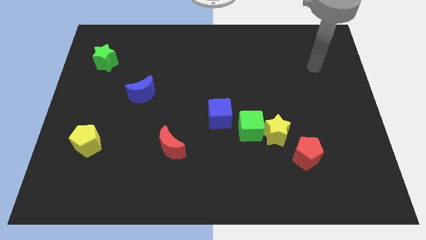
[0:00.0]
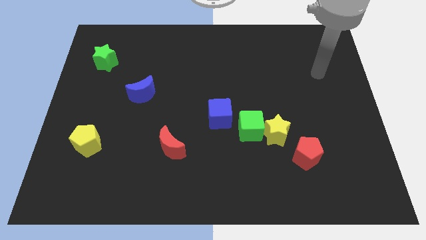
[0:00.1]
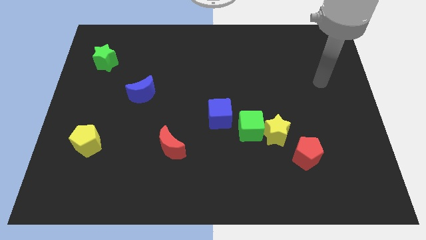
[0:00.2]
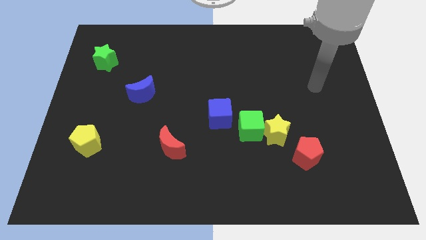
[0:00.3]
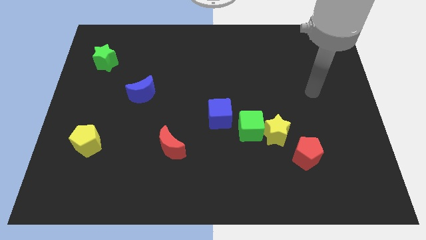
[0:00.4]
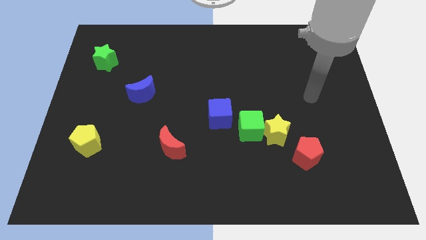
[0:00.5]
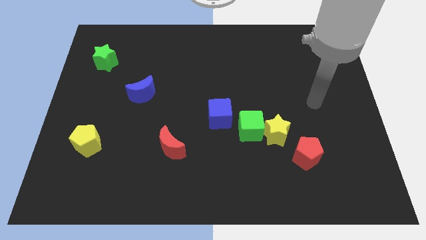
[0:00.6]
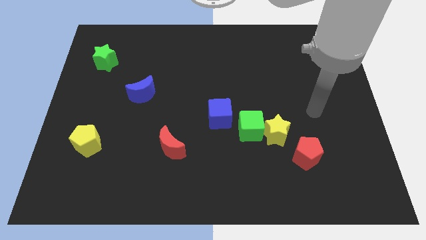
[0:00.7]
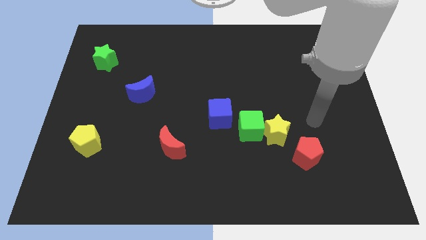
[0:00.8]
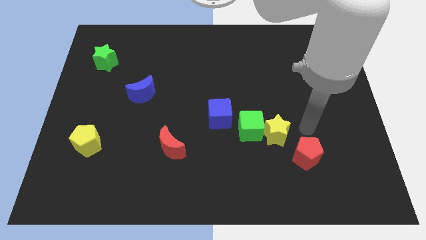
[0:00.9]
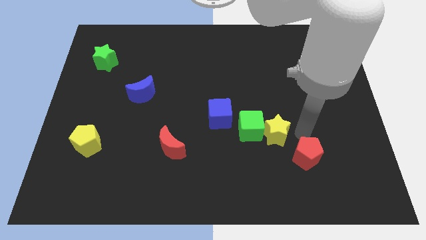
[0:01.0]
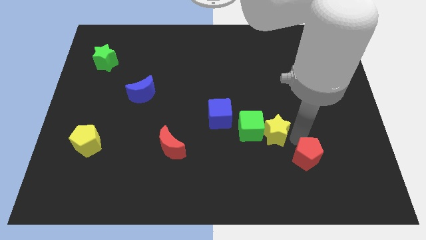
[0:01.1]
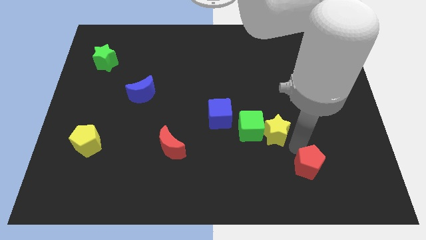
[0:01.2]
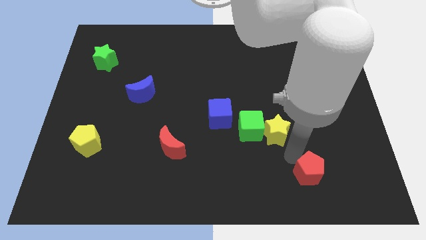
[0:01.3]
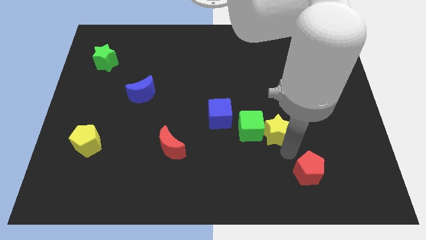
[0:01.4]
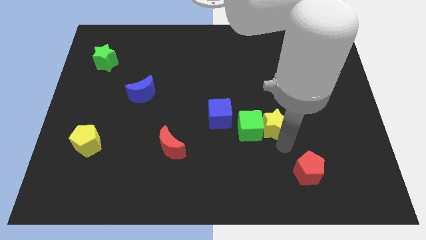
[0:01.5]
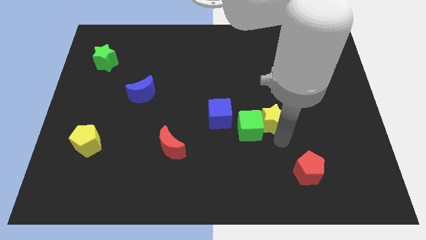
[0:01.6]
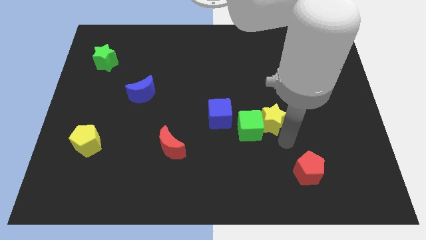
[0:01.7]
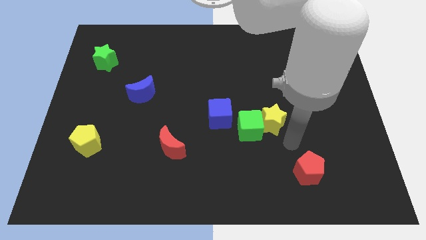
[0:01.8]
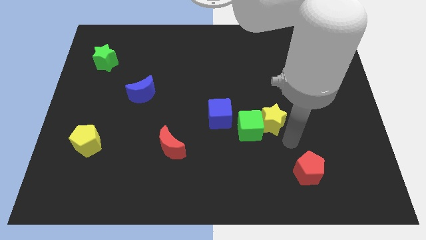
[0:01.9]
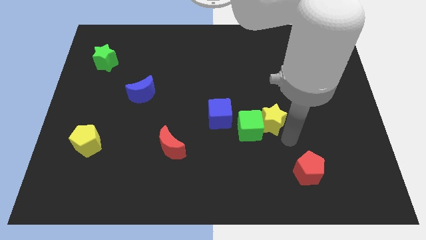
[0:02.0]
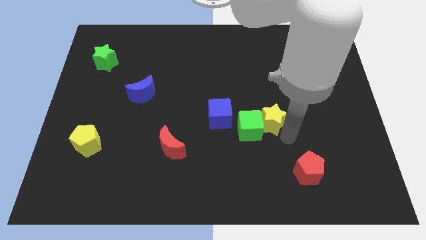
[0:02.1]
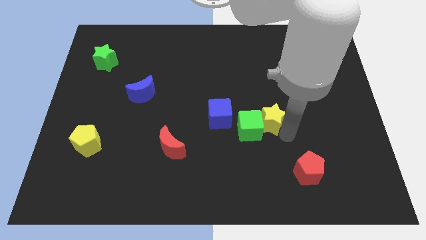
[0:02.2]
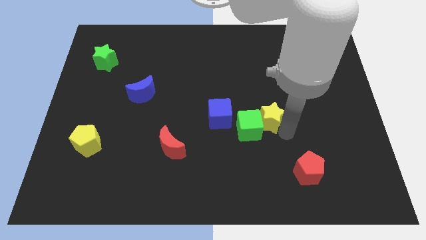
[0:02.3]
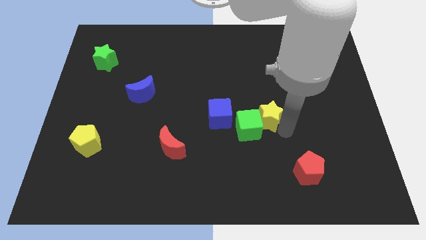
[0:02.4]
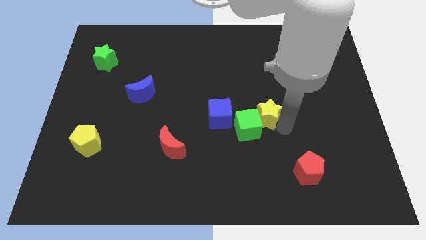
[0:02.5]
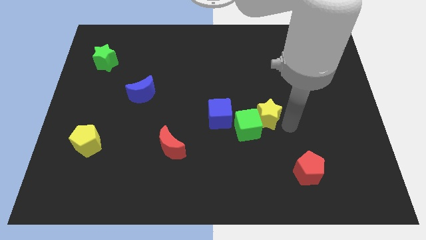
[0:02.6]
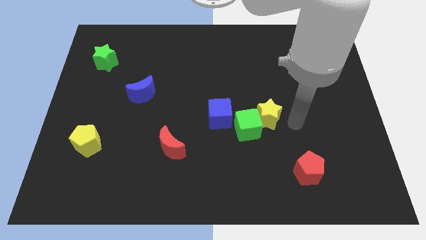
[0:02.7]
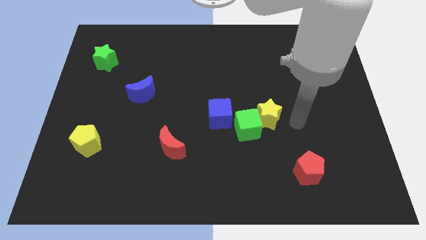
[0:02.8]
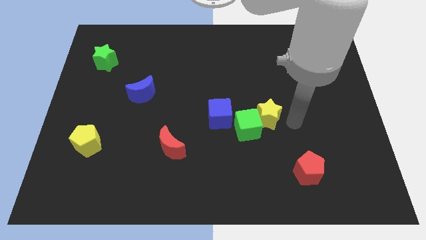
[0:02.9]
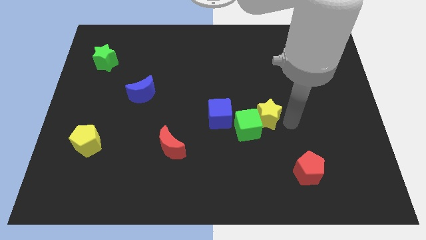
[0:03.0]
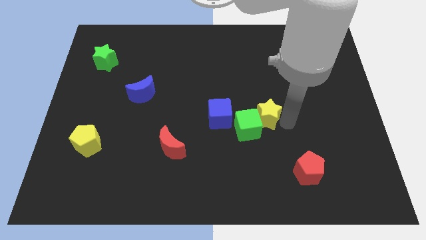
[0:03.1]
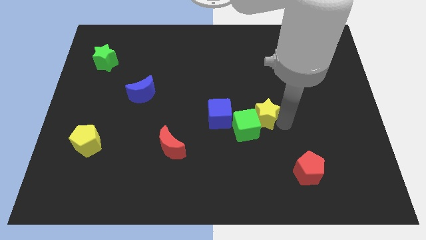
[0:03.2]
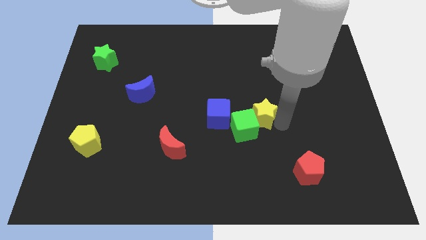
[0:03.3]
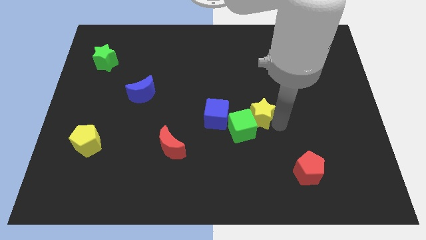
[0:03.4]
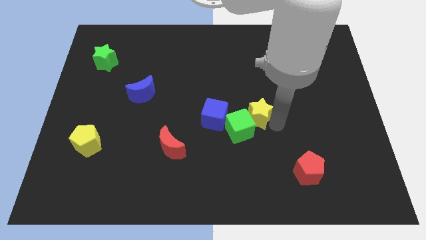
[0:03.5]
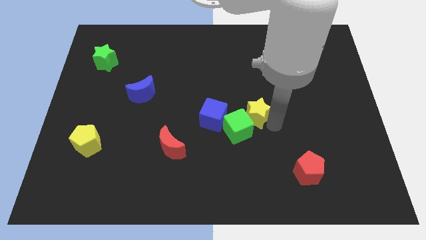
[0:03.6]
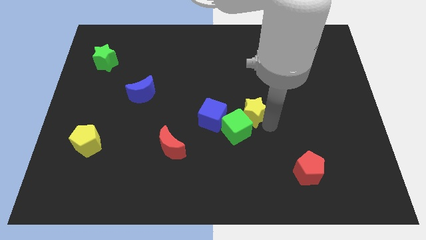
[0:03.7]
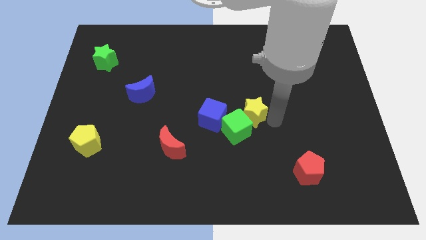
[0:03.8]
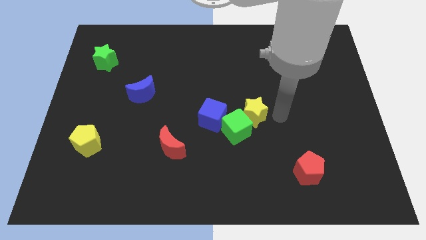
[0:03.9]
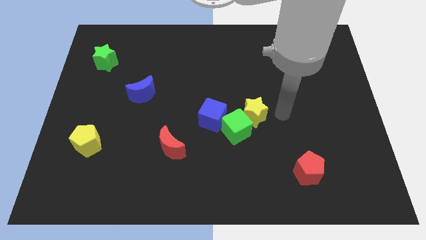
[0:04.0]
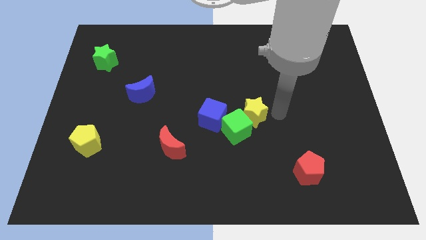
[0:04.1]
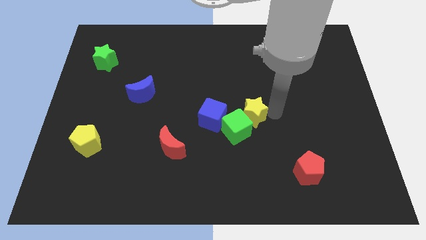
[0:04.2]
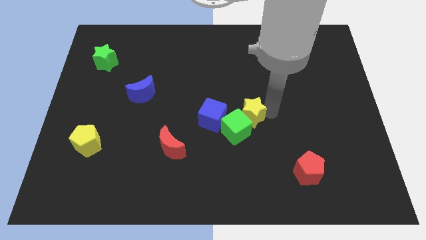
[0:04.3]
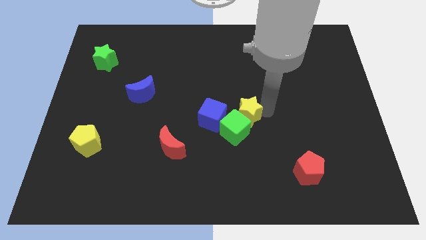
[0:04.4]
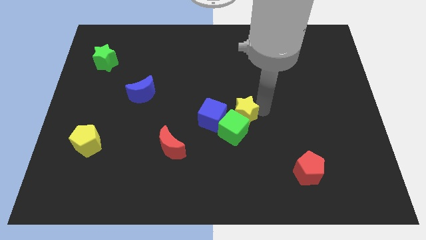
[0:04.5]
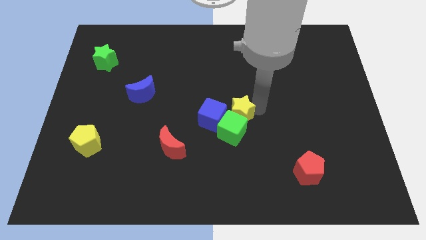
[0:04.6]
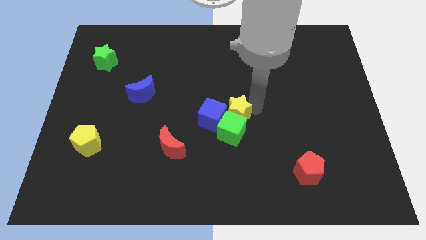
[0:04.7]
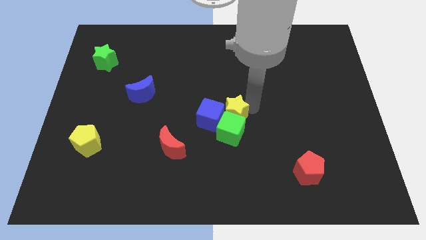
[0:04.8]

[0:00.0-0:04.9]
slide the yellow star towards the blue cube

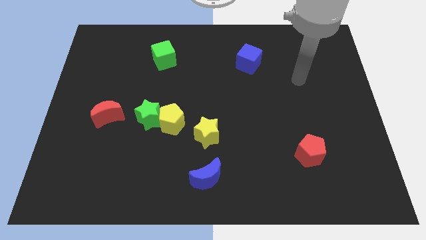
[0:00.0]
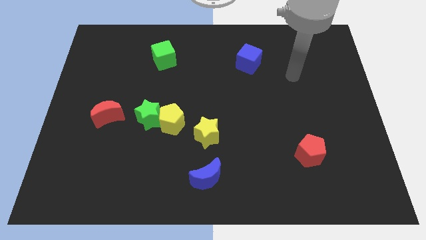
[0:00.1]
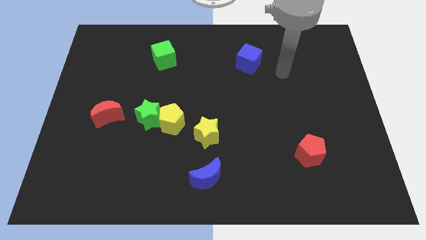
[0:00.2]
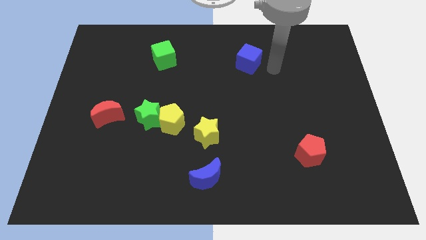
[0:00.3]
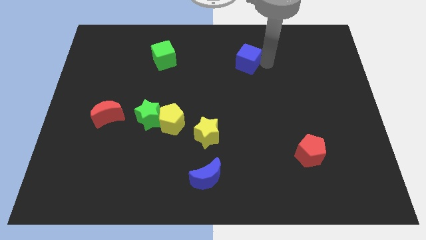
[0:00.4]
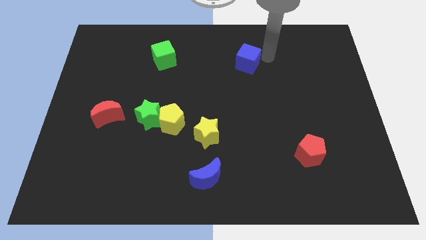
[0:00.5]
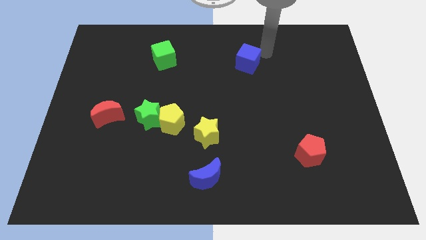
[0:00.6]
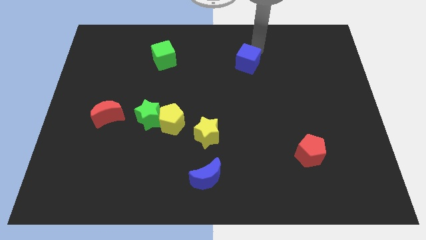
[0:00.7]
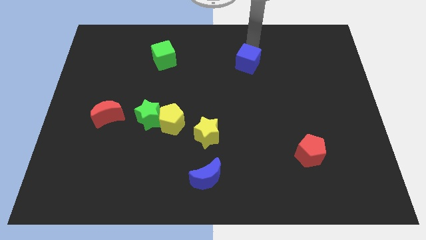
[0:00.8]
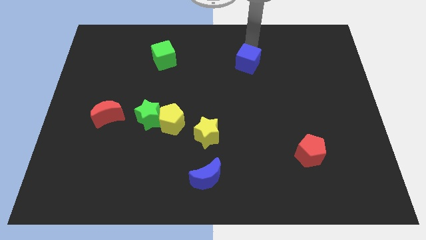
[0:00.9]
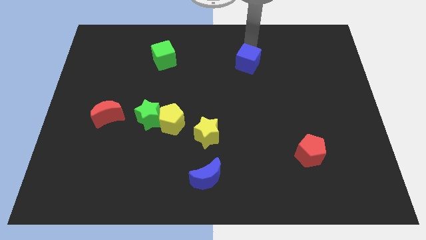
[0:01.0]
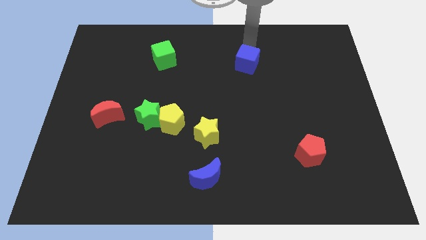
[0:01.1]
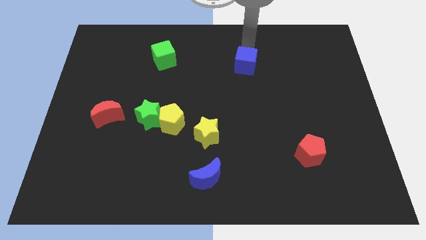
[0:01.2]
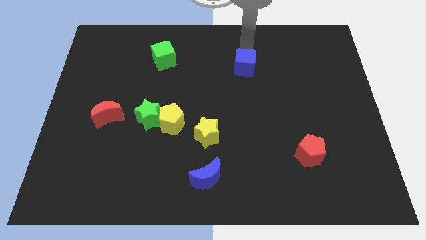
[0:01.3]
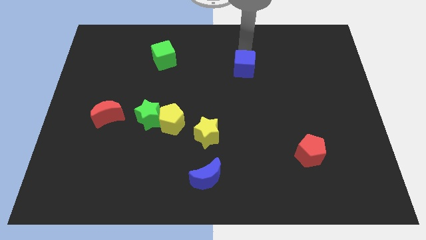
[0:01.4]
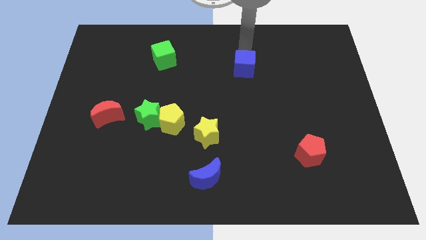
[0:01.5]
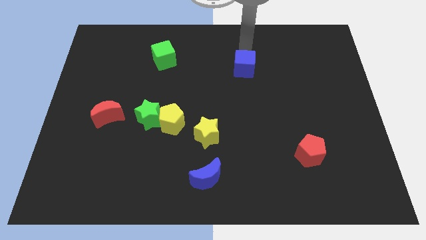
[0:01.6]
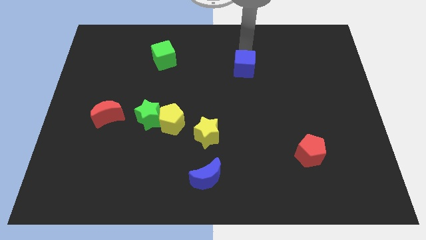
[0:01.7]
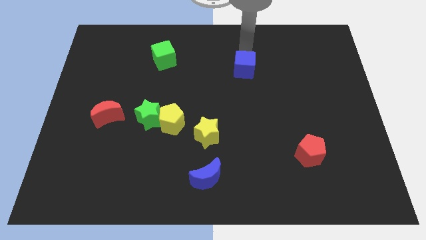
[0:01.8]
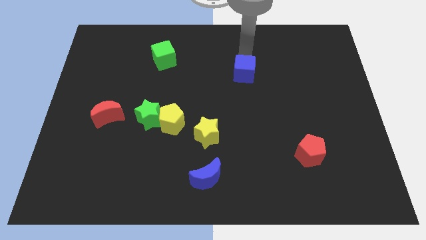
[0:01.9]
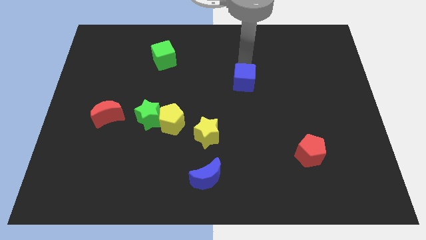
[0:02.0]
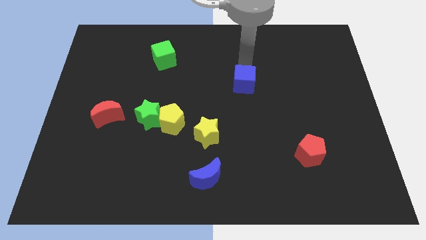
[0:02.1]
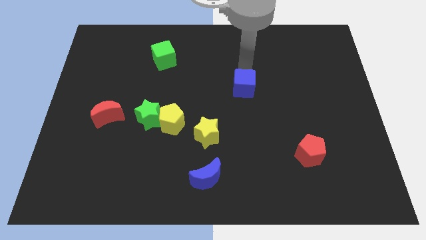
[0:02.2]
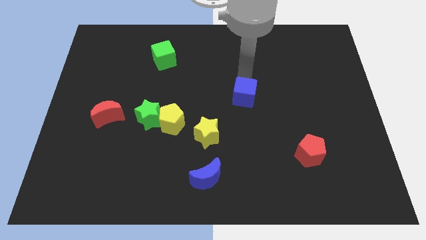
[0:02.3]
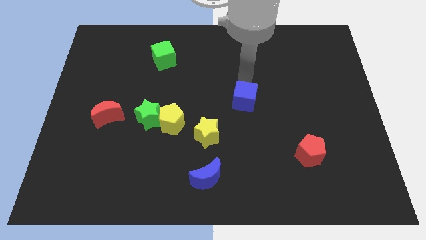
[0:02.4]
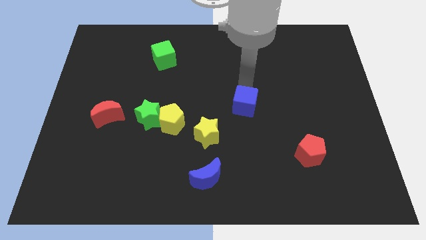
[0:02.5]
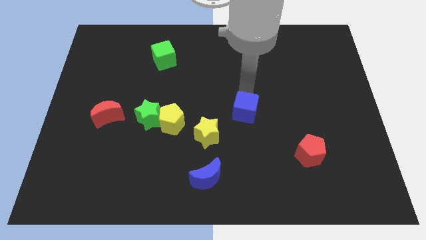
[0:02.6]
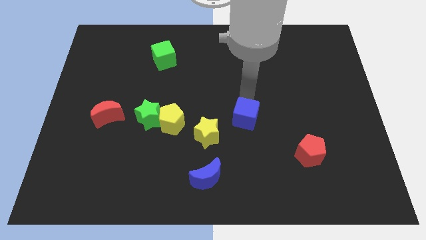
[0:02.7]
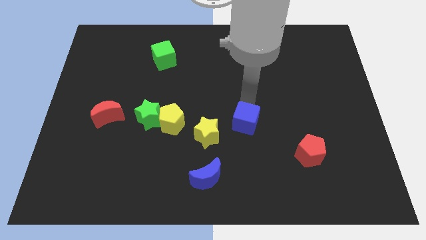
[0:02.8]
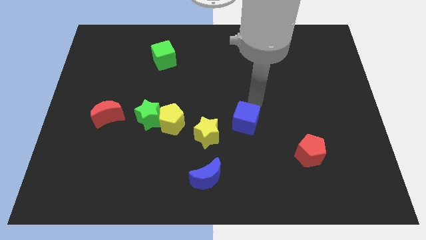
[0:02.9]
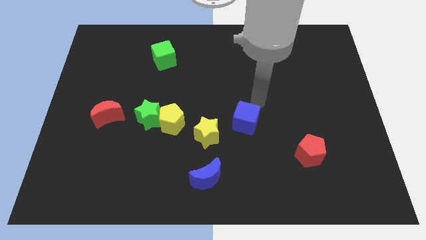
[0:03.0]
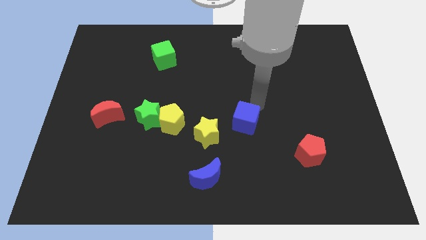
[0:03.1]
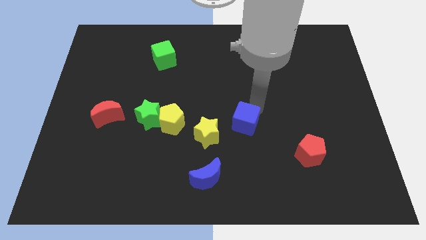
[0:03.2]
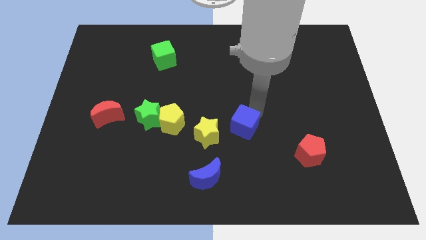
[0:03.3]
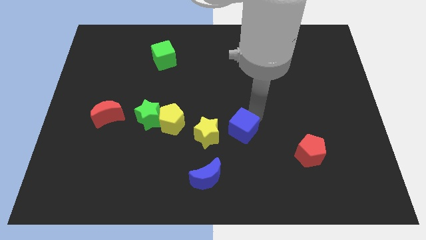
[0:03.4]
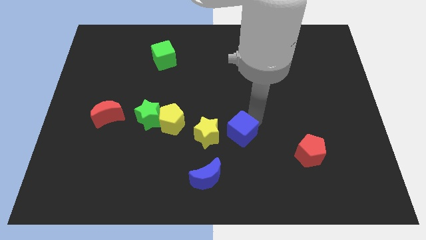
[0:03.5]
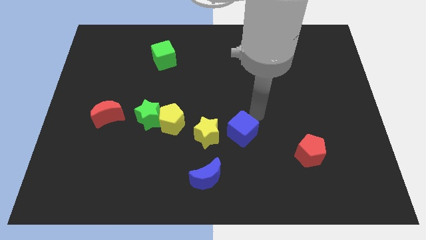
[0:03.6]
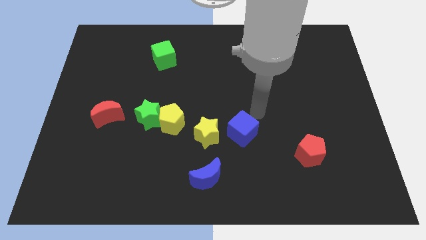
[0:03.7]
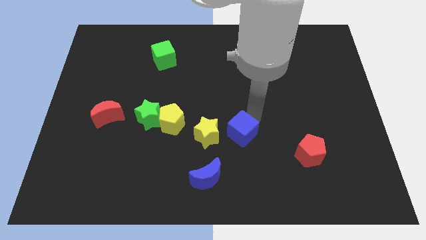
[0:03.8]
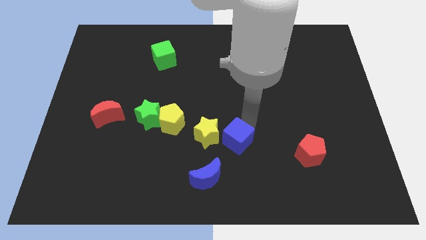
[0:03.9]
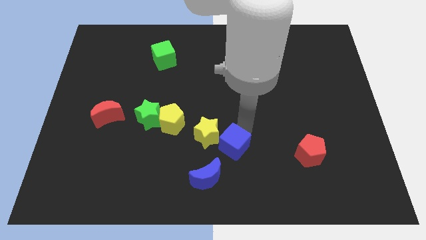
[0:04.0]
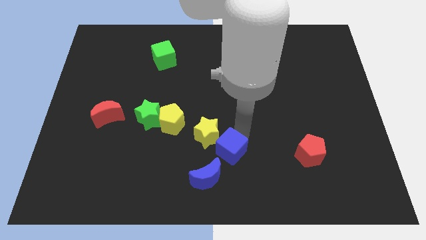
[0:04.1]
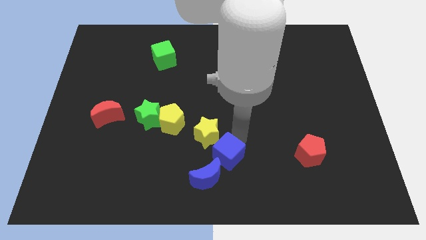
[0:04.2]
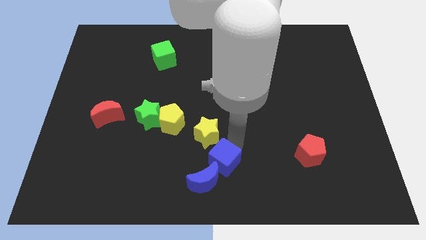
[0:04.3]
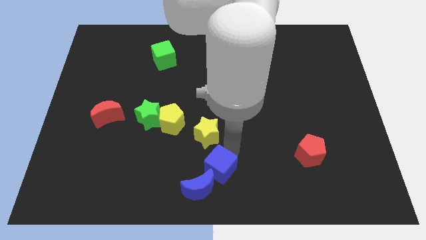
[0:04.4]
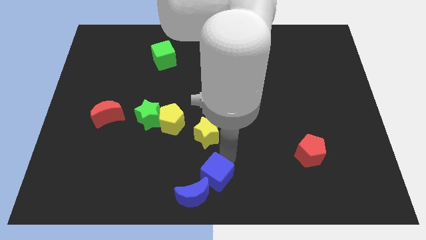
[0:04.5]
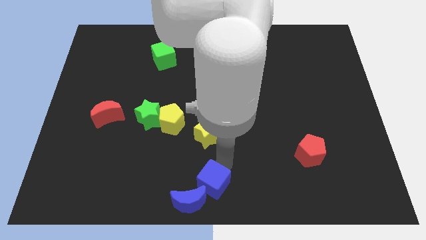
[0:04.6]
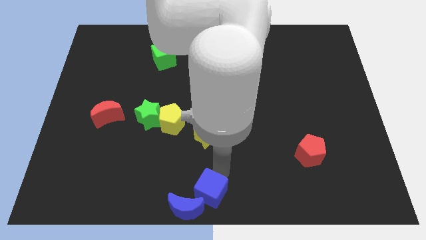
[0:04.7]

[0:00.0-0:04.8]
push the blue cube close to the blue moon
